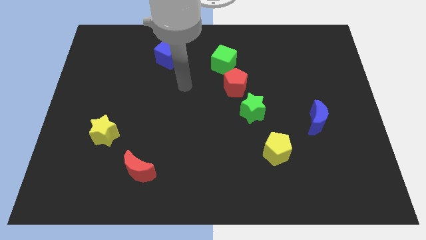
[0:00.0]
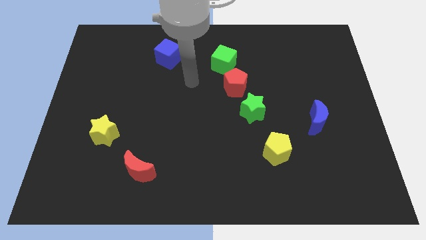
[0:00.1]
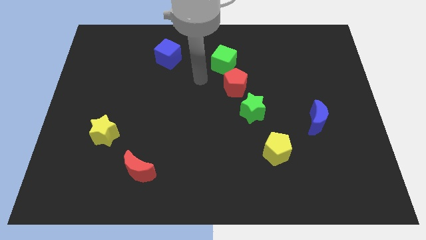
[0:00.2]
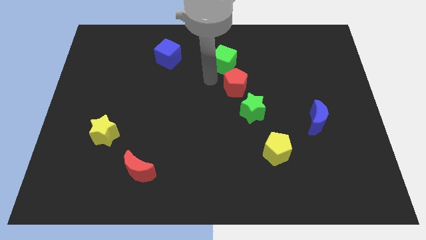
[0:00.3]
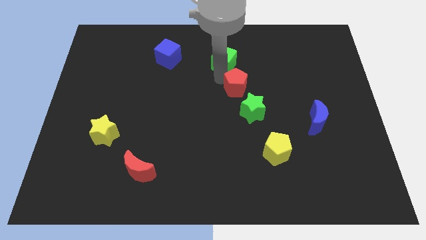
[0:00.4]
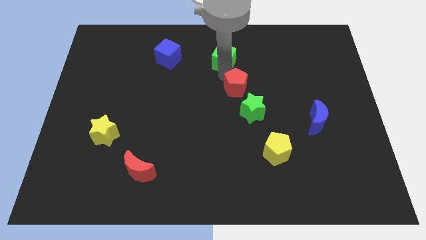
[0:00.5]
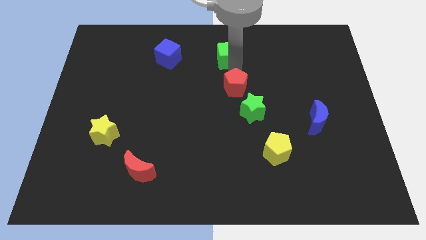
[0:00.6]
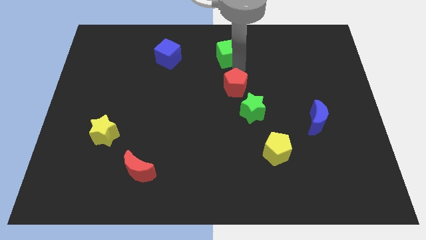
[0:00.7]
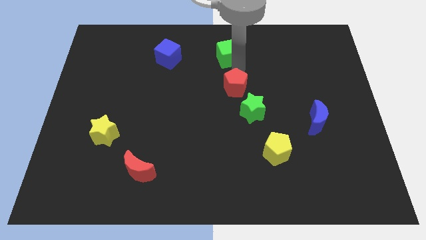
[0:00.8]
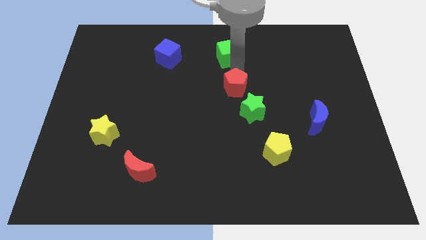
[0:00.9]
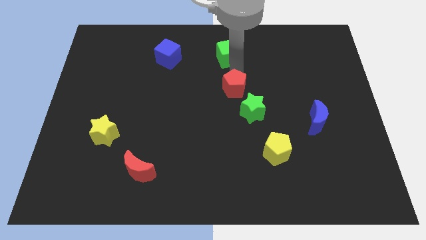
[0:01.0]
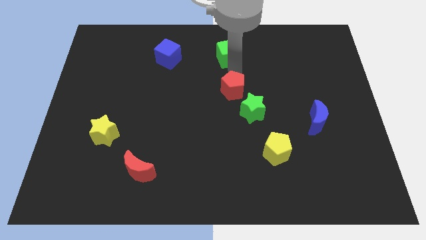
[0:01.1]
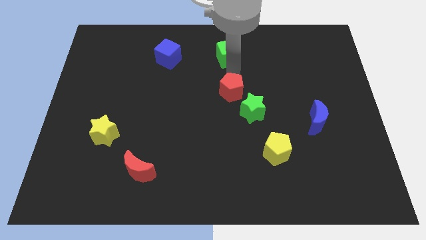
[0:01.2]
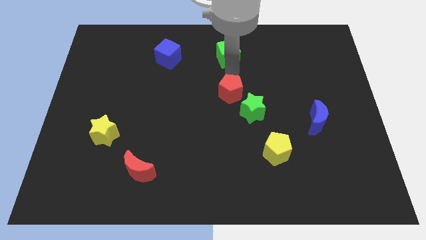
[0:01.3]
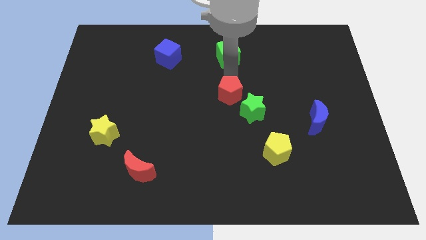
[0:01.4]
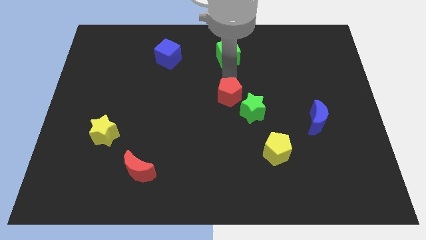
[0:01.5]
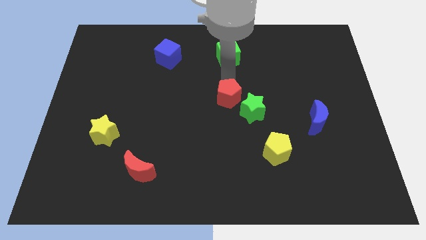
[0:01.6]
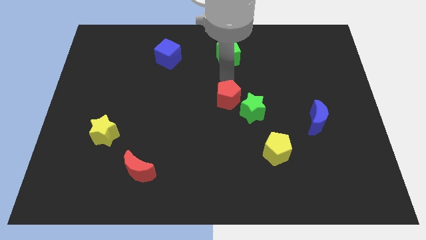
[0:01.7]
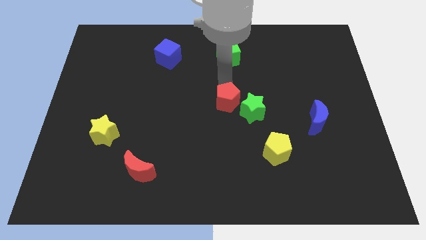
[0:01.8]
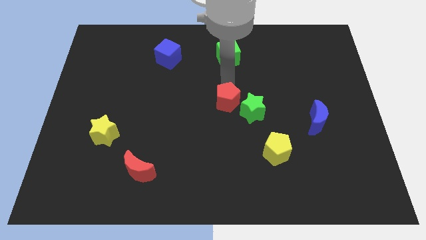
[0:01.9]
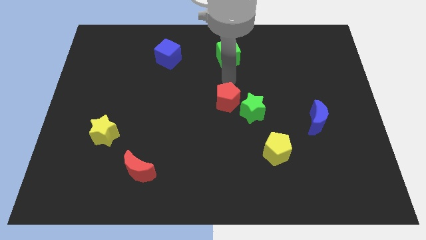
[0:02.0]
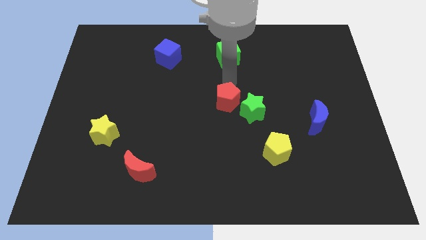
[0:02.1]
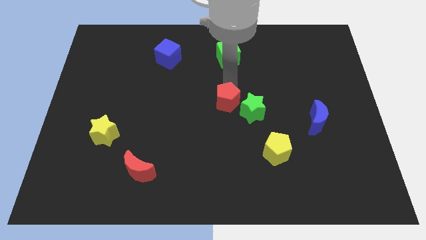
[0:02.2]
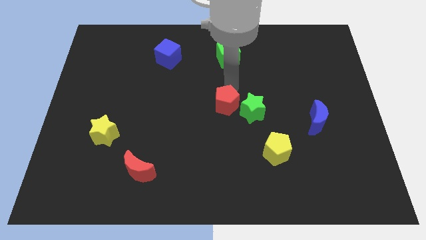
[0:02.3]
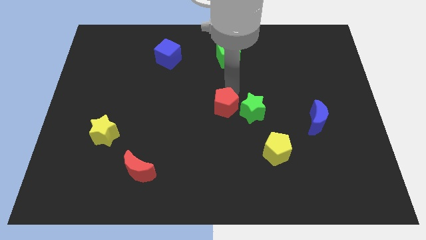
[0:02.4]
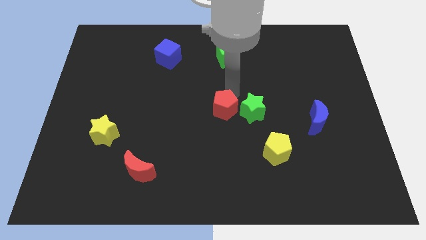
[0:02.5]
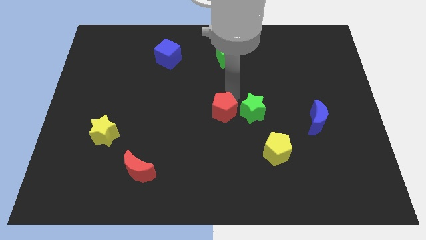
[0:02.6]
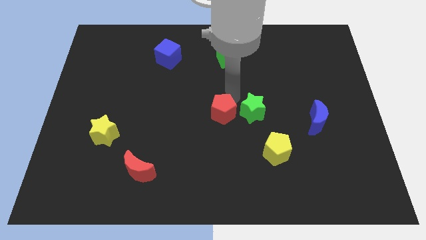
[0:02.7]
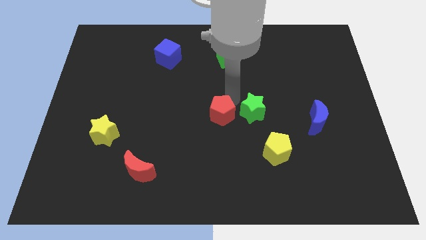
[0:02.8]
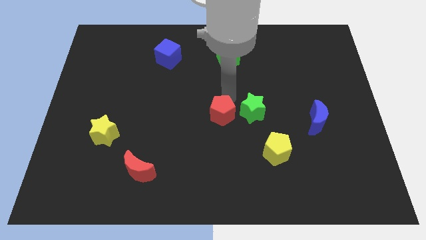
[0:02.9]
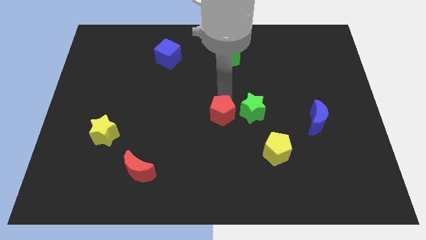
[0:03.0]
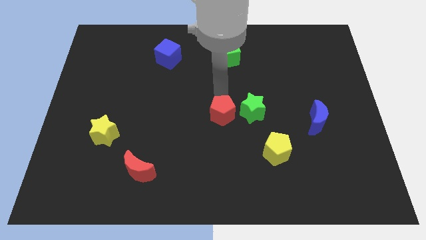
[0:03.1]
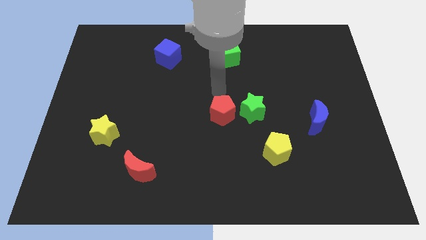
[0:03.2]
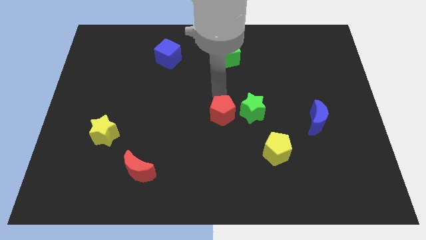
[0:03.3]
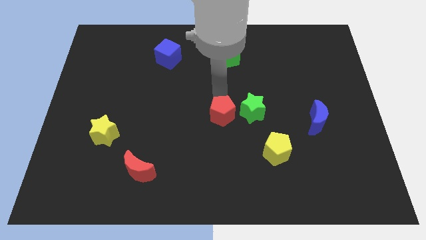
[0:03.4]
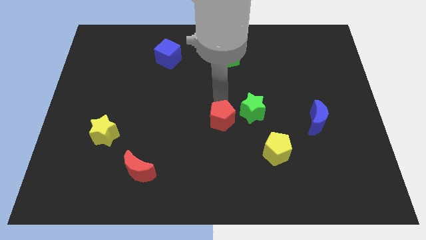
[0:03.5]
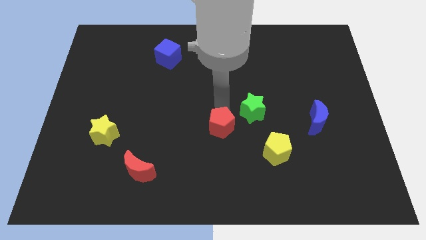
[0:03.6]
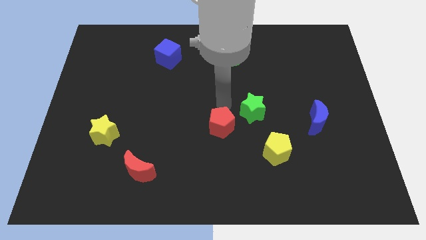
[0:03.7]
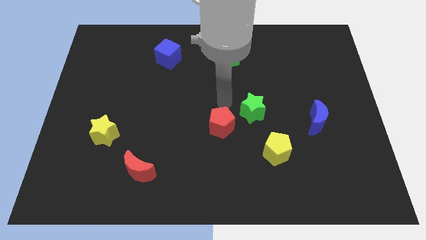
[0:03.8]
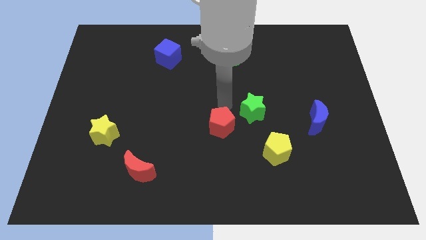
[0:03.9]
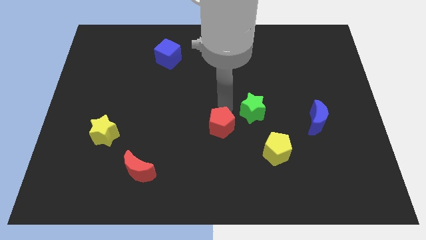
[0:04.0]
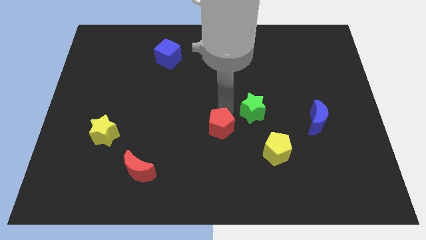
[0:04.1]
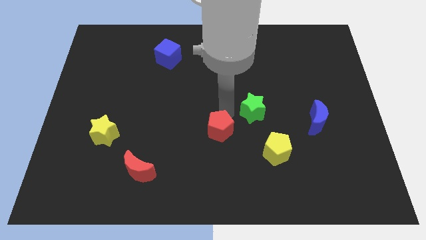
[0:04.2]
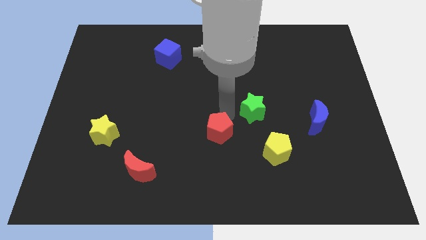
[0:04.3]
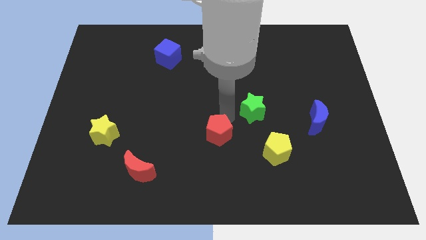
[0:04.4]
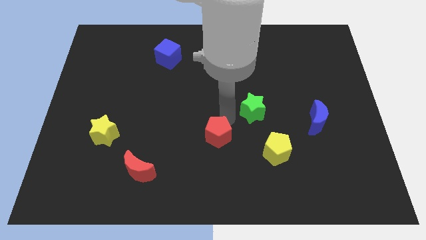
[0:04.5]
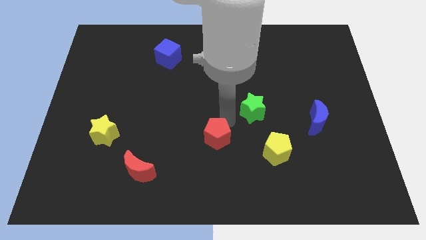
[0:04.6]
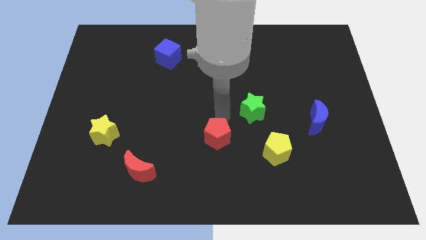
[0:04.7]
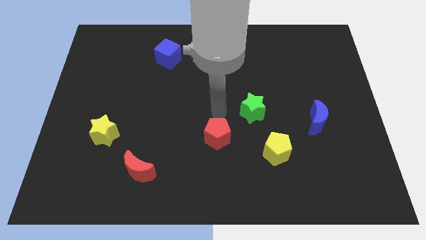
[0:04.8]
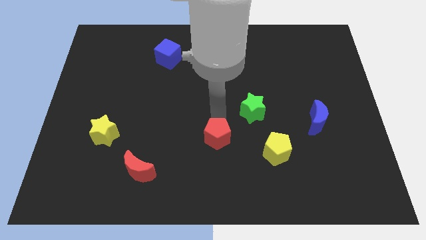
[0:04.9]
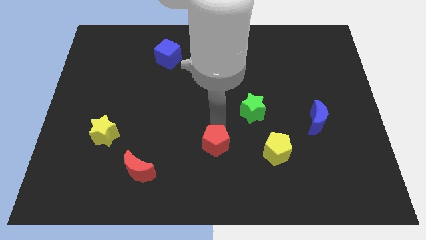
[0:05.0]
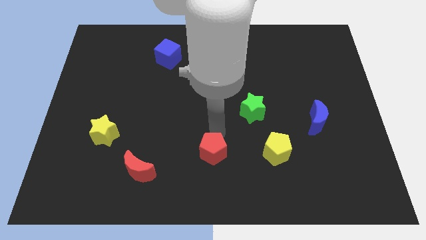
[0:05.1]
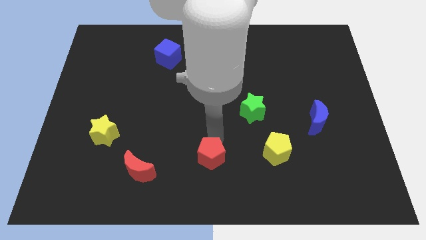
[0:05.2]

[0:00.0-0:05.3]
slide the red pentagon to the bottom side

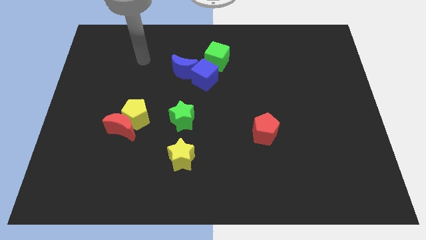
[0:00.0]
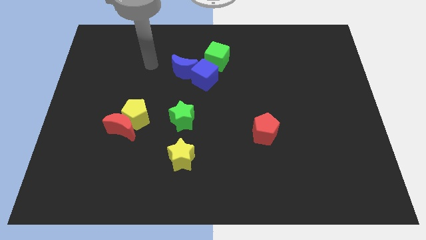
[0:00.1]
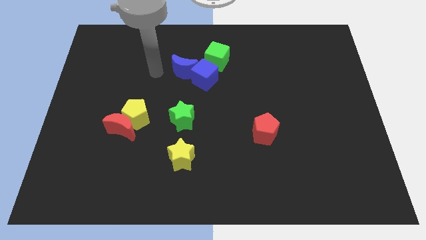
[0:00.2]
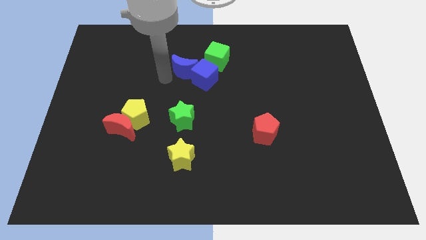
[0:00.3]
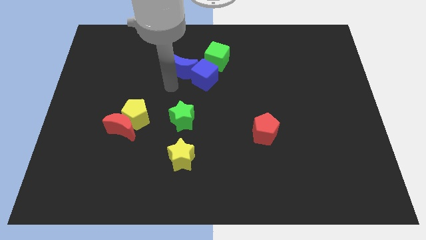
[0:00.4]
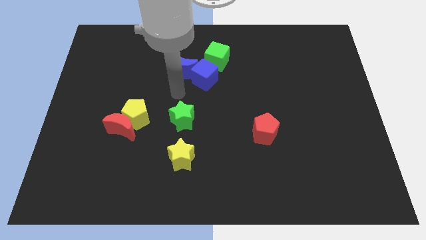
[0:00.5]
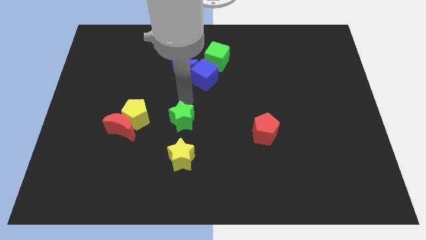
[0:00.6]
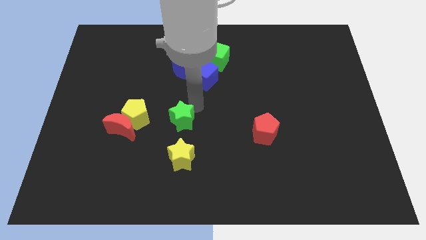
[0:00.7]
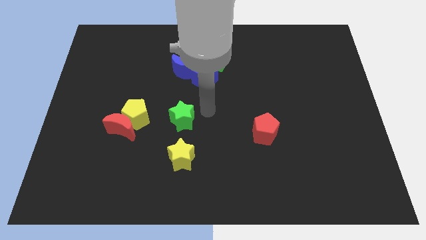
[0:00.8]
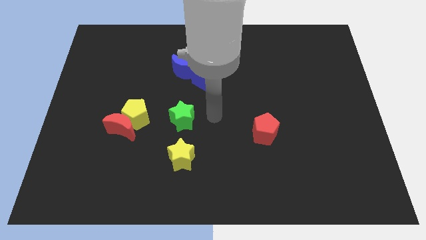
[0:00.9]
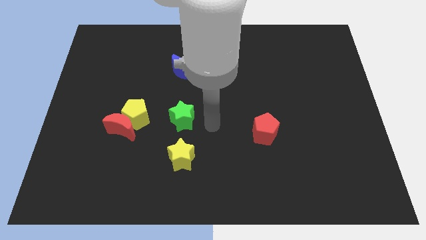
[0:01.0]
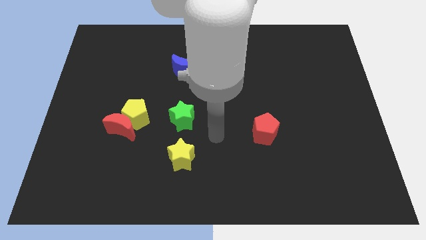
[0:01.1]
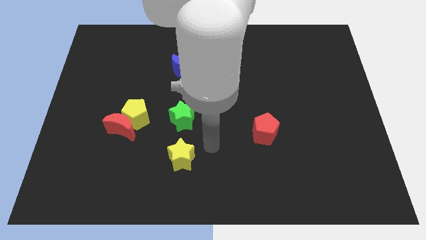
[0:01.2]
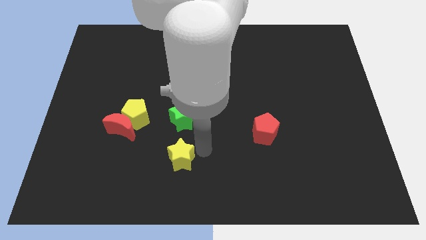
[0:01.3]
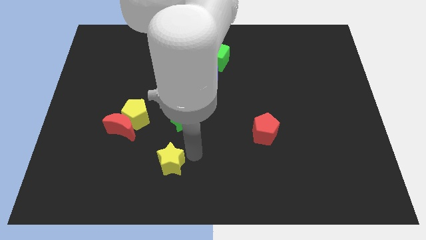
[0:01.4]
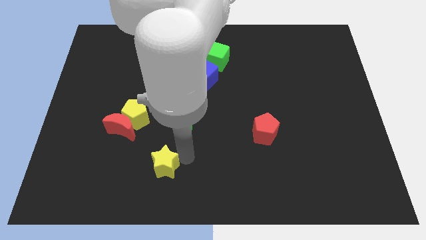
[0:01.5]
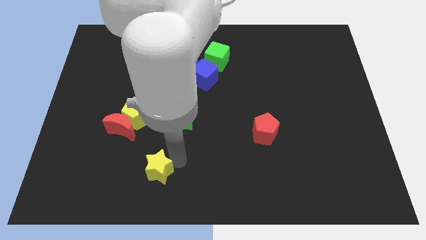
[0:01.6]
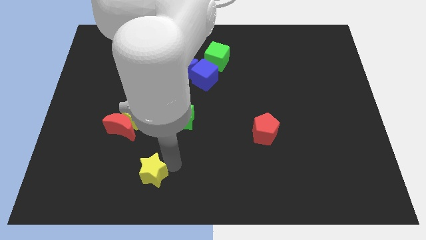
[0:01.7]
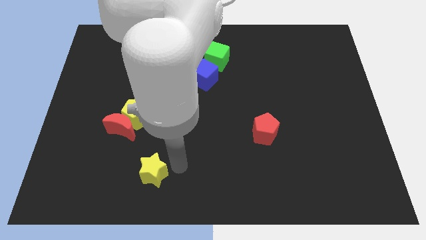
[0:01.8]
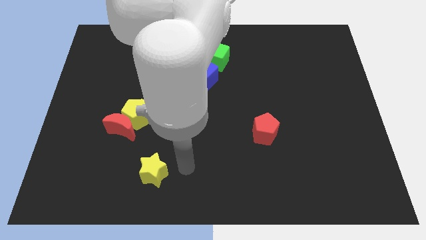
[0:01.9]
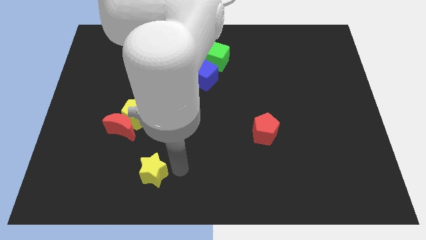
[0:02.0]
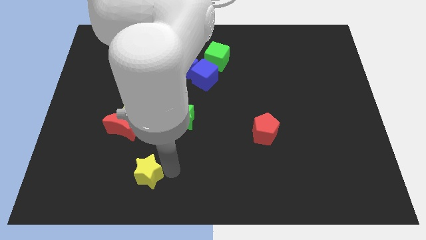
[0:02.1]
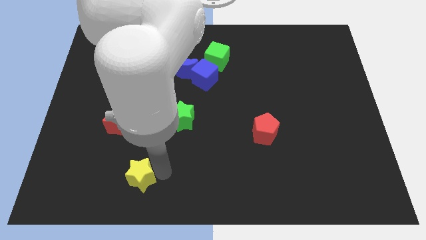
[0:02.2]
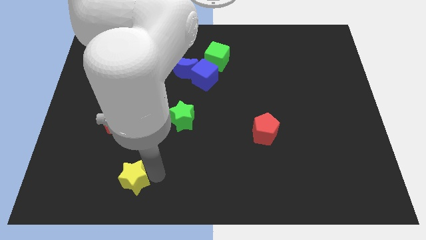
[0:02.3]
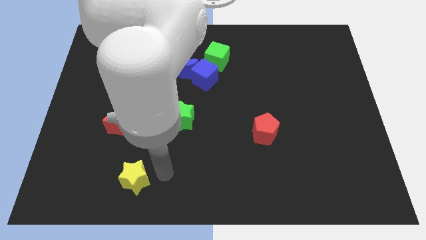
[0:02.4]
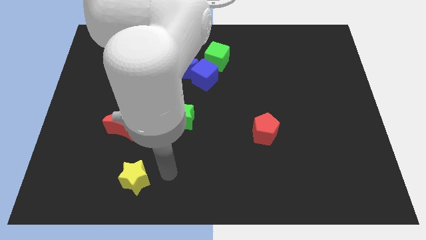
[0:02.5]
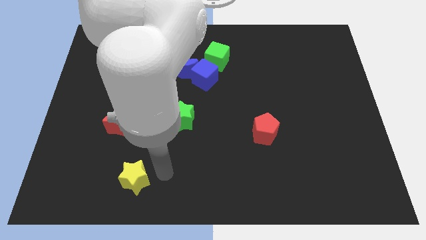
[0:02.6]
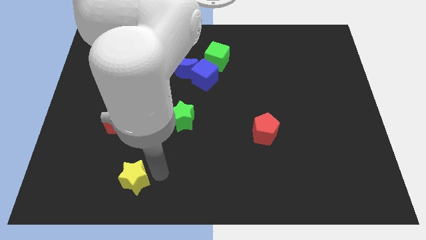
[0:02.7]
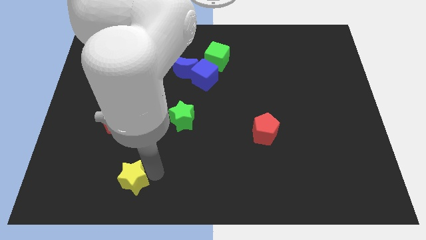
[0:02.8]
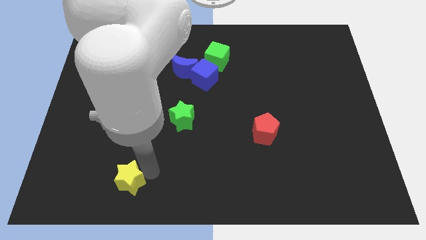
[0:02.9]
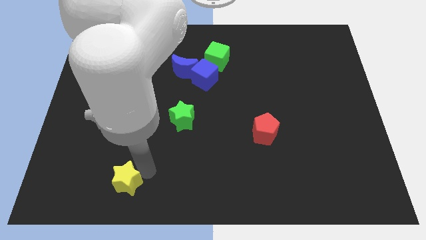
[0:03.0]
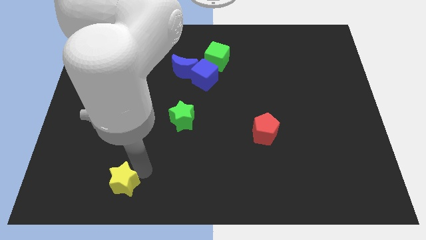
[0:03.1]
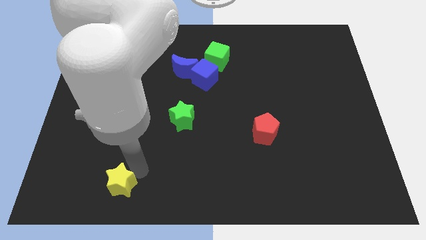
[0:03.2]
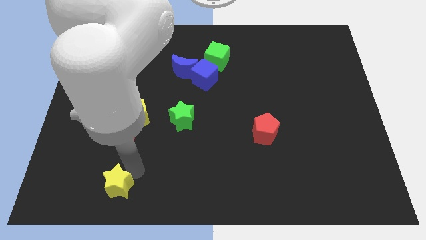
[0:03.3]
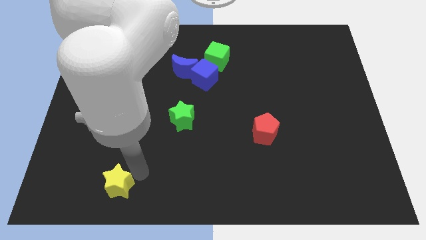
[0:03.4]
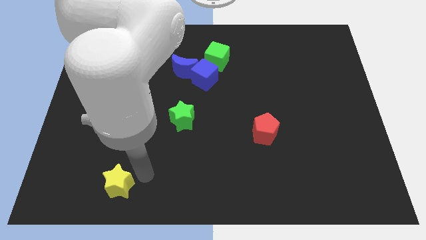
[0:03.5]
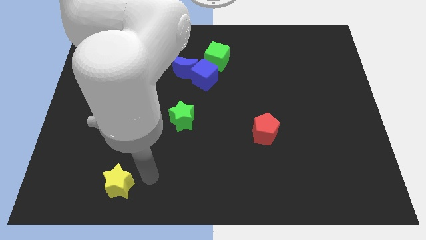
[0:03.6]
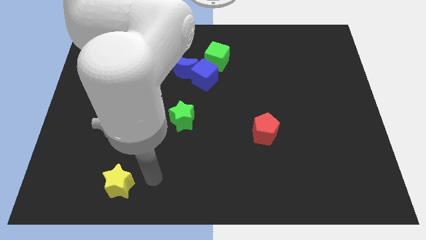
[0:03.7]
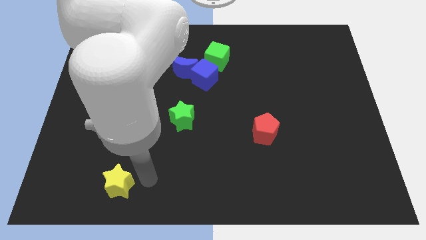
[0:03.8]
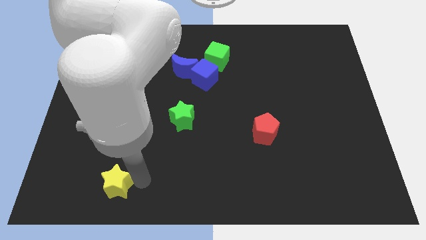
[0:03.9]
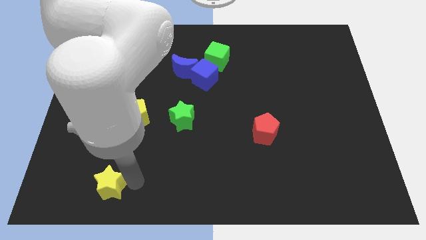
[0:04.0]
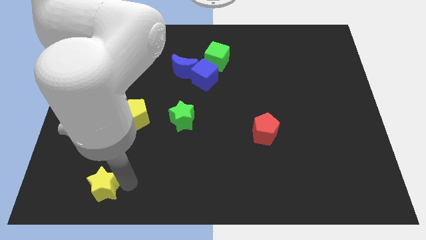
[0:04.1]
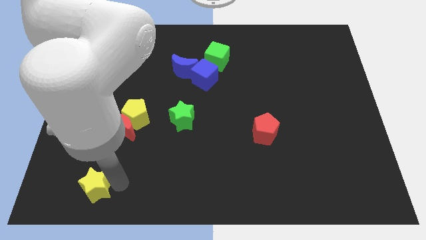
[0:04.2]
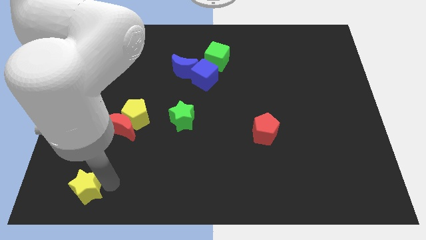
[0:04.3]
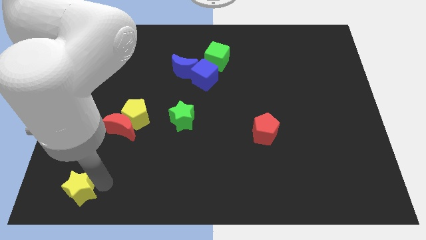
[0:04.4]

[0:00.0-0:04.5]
push the yellow star to the bottom left corner
